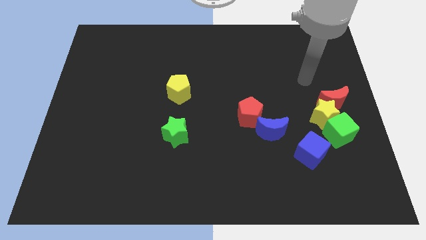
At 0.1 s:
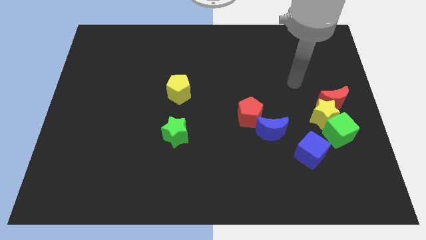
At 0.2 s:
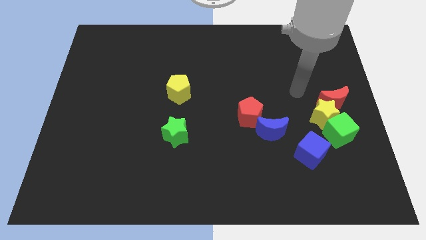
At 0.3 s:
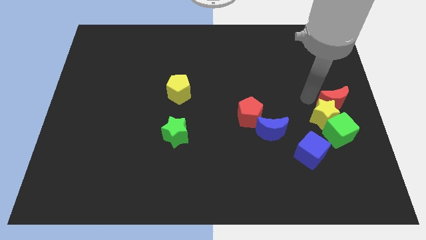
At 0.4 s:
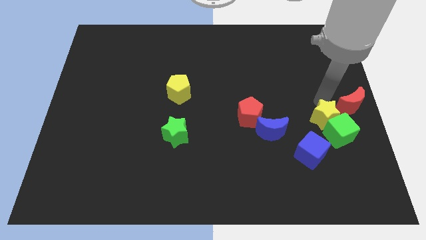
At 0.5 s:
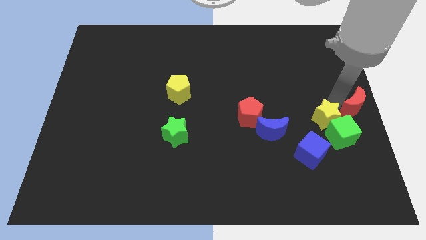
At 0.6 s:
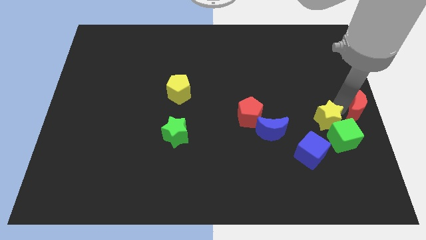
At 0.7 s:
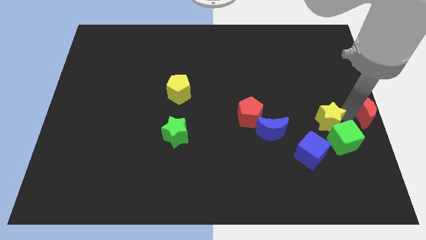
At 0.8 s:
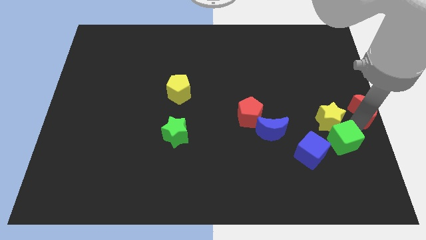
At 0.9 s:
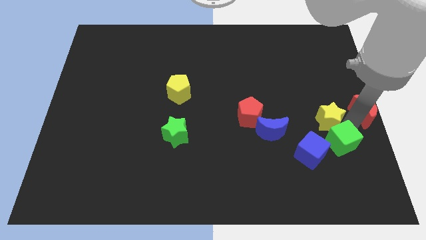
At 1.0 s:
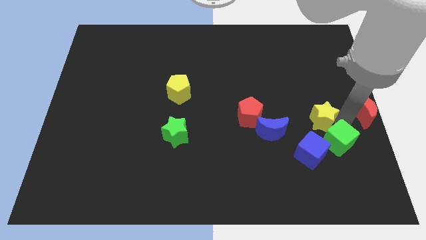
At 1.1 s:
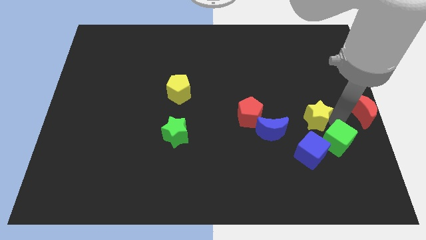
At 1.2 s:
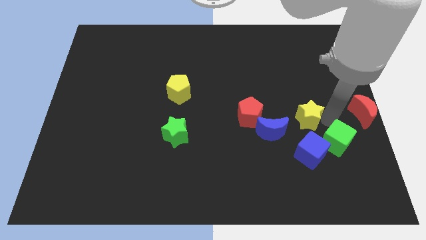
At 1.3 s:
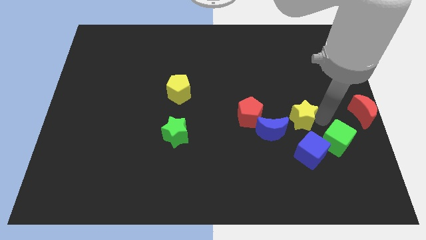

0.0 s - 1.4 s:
move the yellow star away from the red moon and green cube

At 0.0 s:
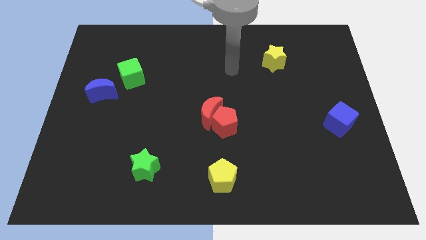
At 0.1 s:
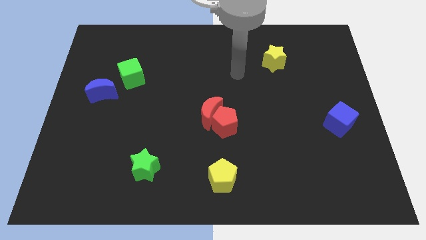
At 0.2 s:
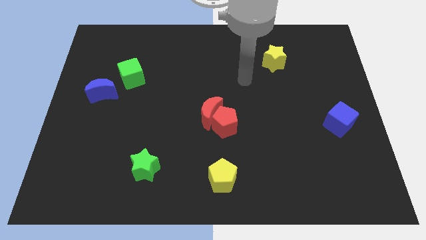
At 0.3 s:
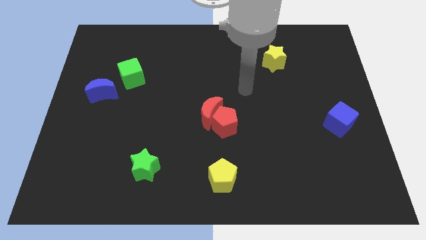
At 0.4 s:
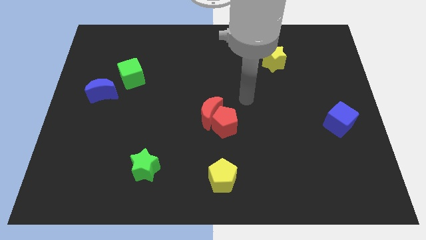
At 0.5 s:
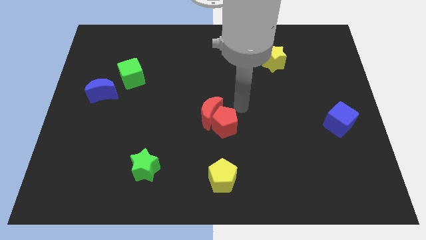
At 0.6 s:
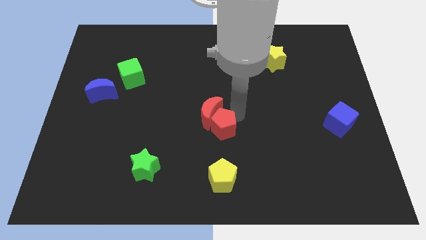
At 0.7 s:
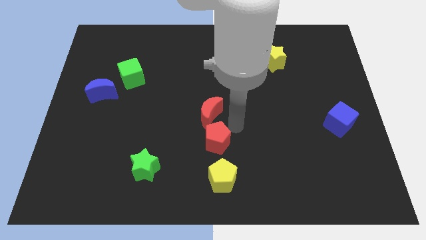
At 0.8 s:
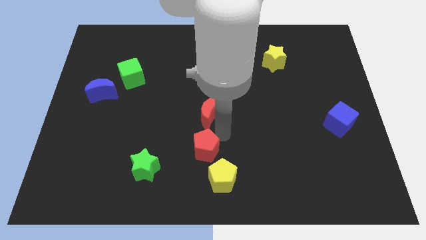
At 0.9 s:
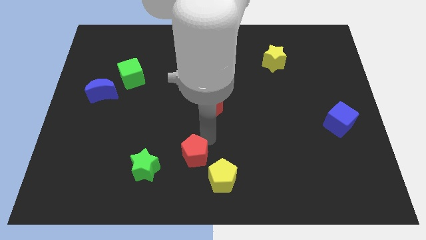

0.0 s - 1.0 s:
pull the red moon apart from the red pentagon

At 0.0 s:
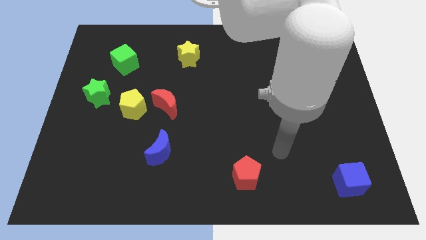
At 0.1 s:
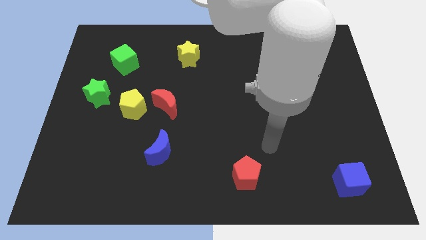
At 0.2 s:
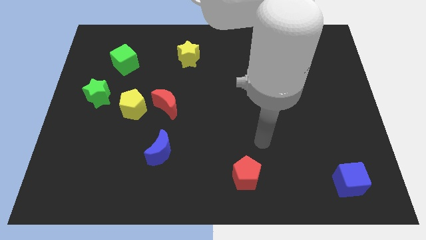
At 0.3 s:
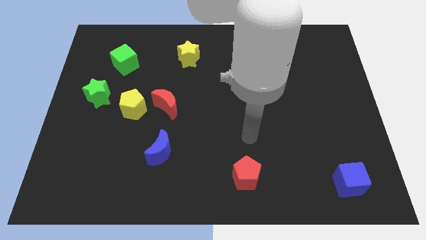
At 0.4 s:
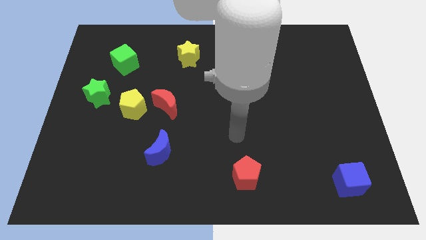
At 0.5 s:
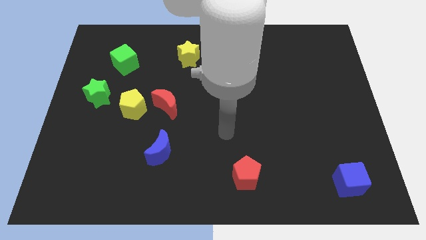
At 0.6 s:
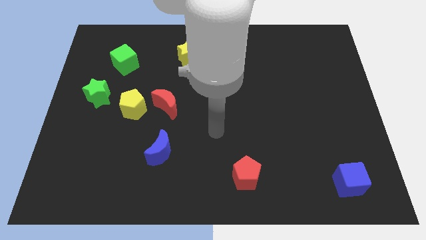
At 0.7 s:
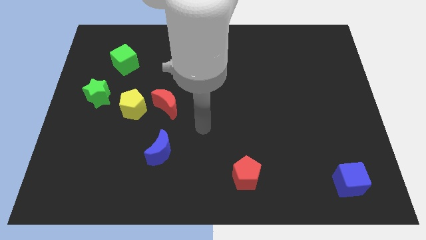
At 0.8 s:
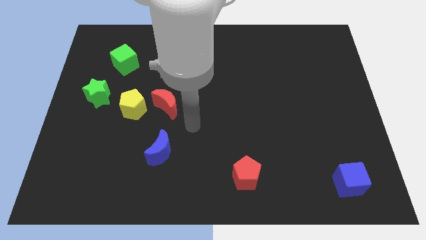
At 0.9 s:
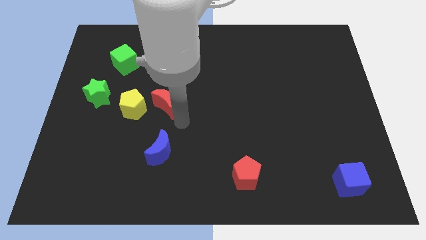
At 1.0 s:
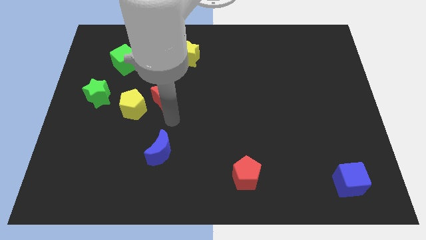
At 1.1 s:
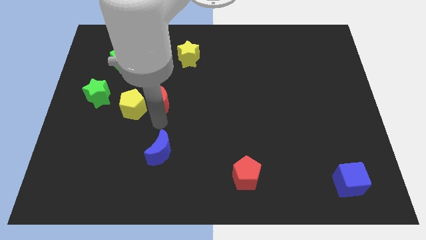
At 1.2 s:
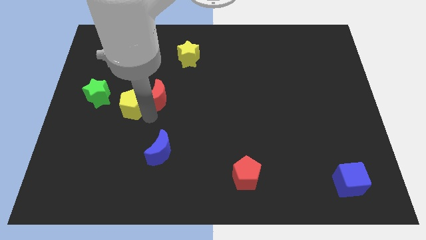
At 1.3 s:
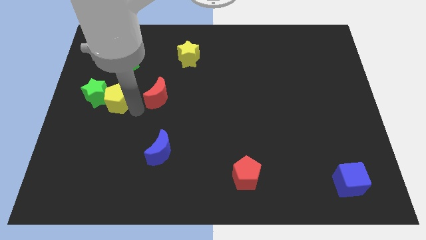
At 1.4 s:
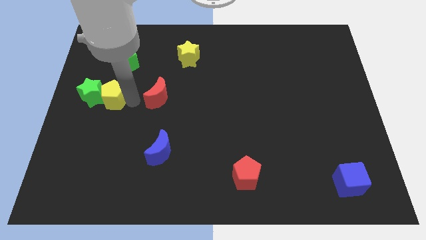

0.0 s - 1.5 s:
pull the red moon apart from the yellow pentagon

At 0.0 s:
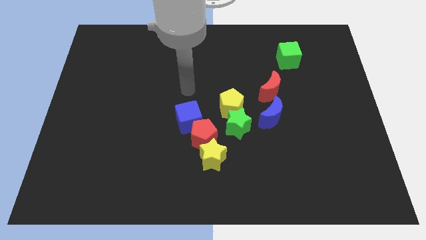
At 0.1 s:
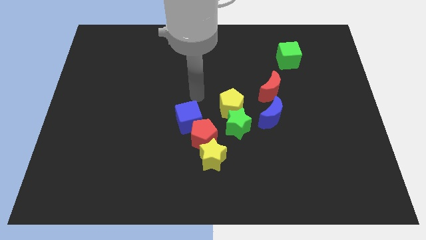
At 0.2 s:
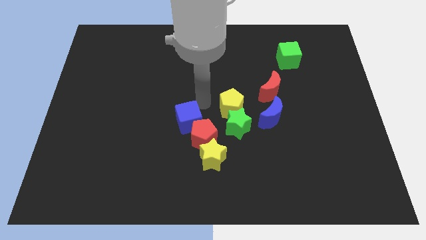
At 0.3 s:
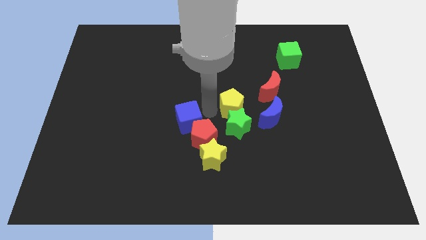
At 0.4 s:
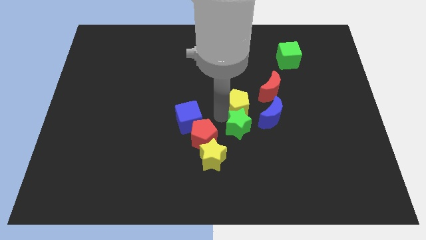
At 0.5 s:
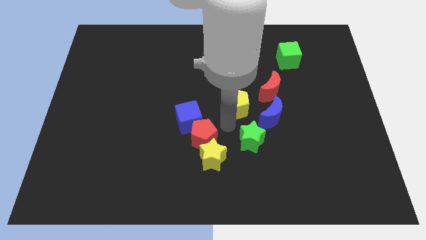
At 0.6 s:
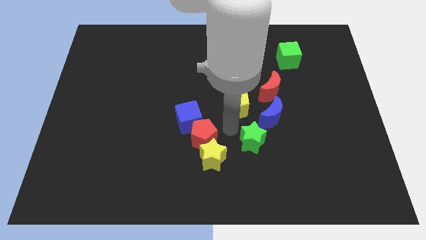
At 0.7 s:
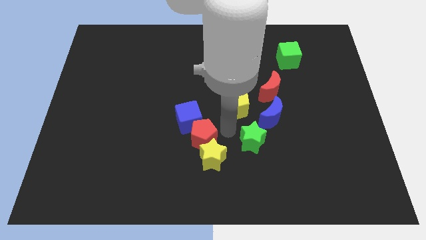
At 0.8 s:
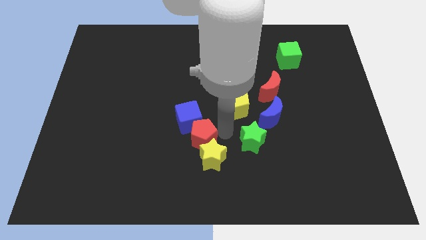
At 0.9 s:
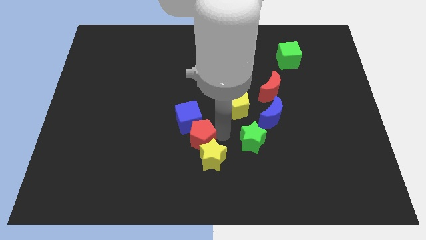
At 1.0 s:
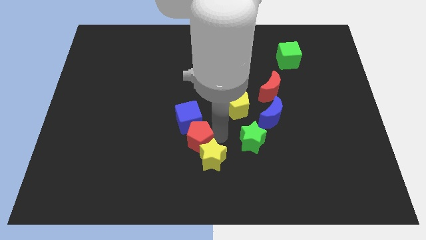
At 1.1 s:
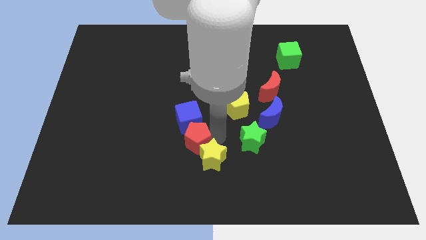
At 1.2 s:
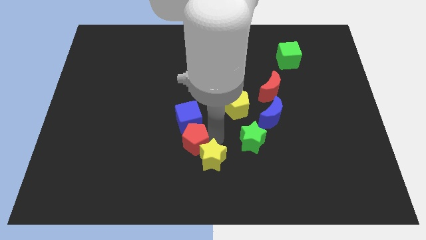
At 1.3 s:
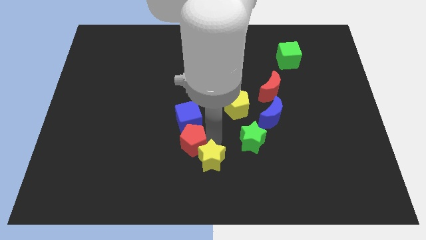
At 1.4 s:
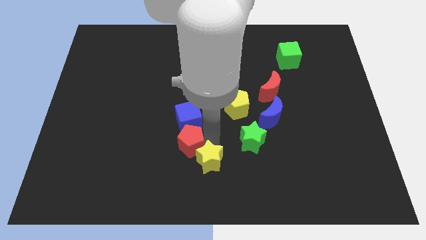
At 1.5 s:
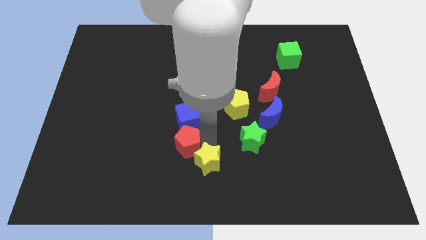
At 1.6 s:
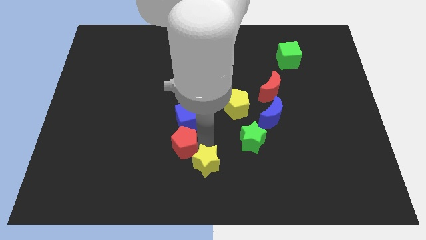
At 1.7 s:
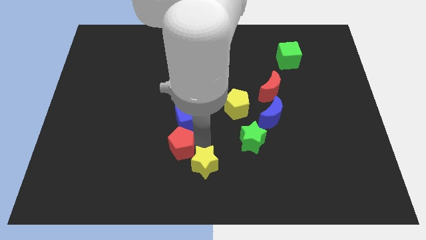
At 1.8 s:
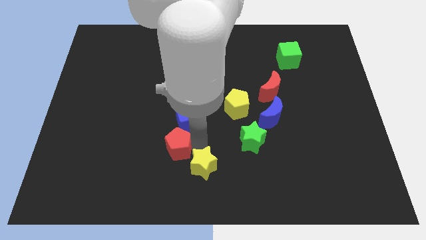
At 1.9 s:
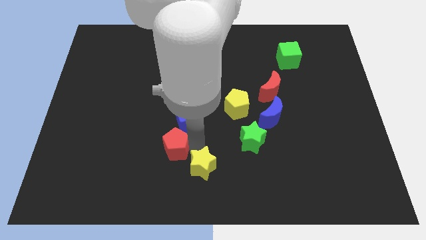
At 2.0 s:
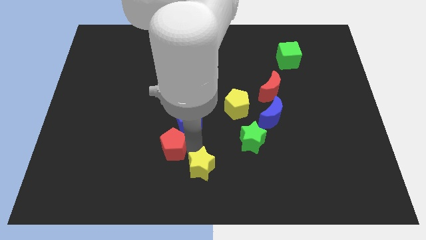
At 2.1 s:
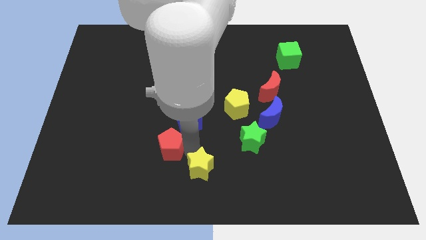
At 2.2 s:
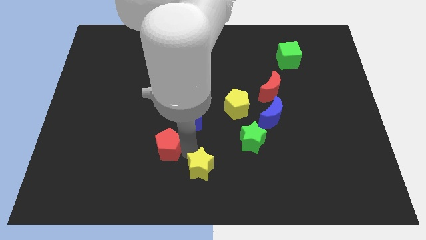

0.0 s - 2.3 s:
pull the red pentagon apart from the yellow star, blue cube, and green star

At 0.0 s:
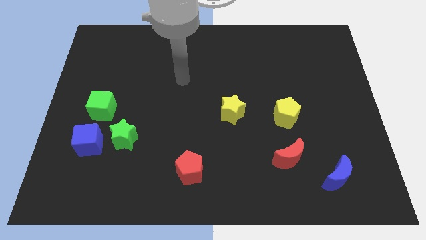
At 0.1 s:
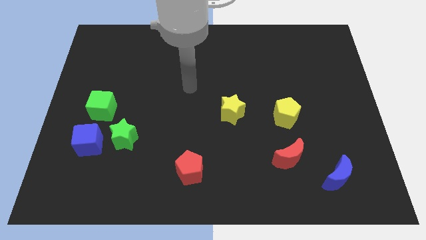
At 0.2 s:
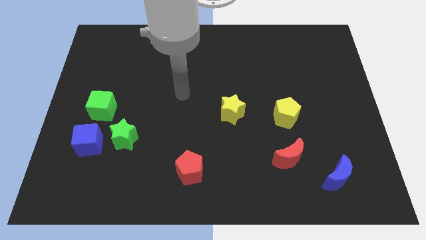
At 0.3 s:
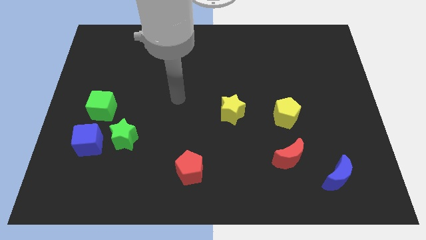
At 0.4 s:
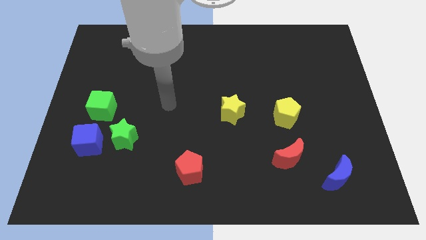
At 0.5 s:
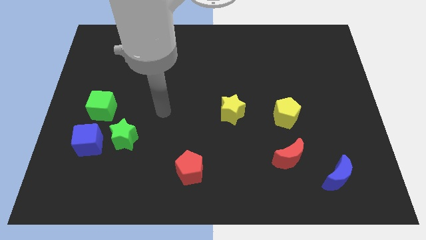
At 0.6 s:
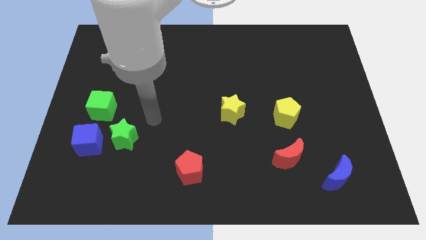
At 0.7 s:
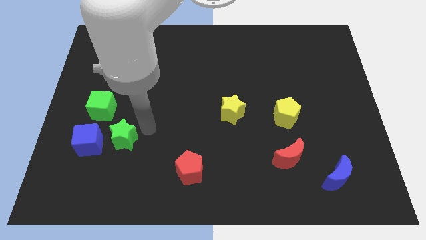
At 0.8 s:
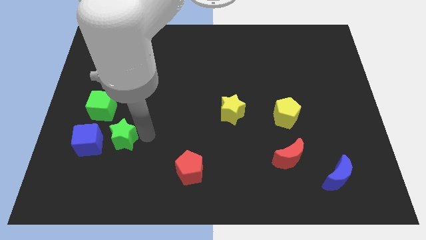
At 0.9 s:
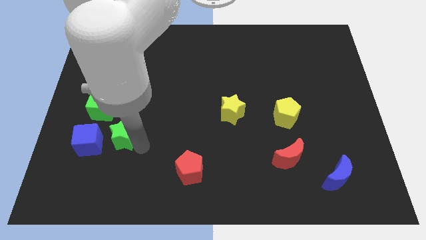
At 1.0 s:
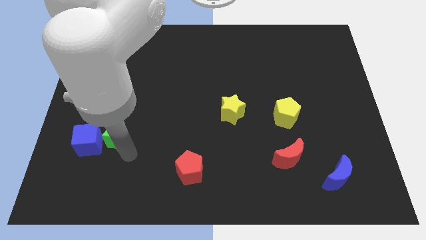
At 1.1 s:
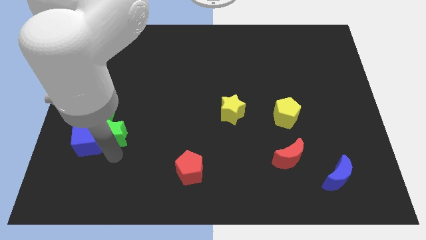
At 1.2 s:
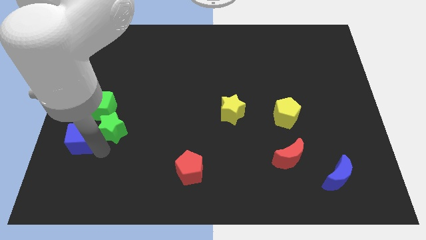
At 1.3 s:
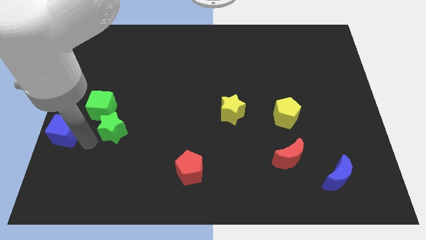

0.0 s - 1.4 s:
move the green star away from the blue cube

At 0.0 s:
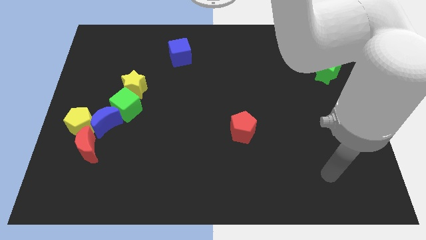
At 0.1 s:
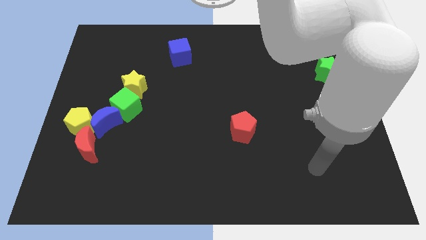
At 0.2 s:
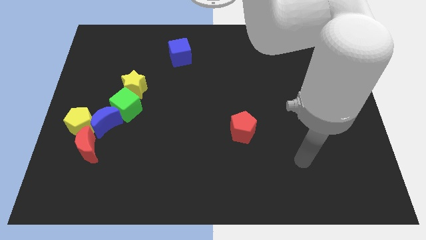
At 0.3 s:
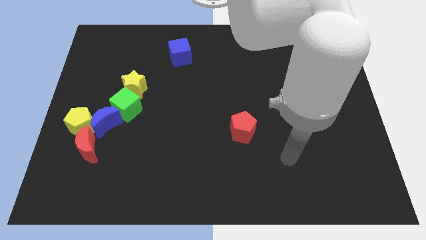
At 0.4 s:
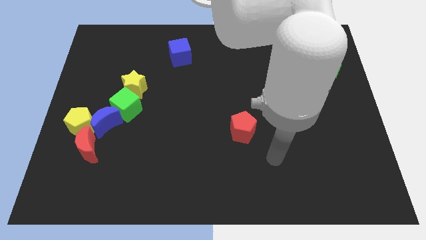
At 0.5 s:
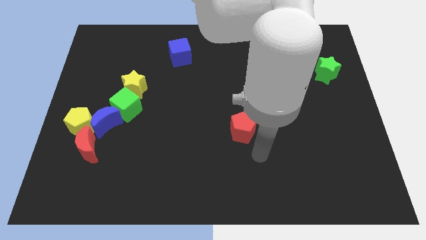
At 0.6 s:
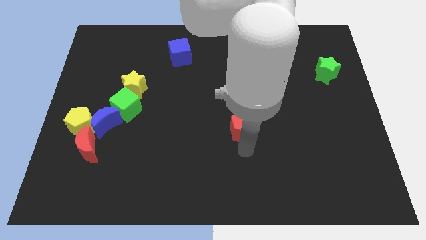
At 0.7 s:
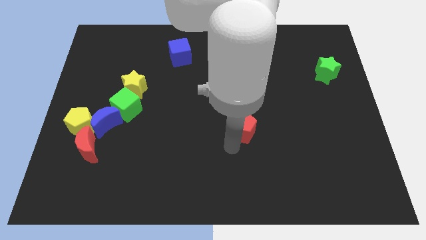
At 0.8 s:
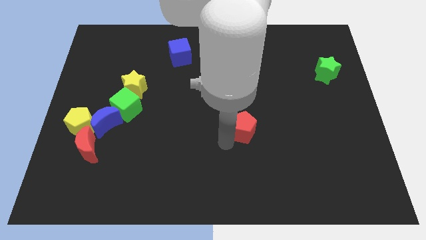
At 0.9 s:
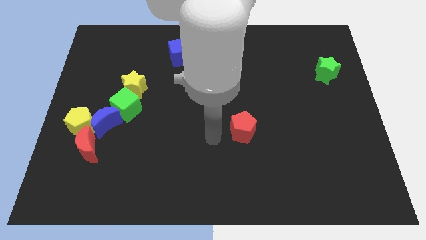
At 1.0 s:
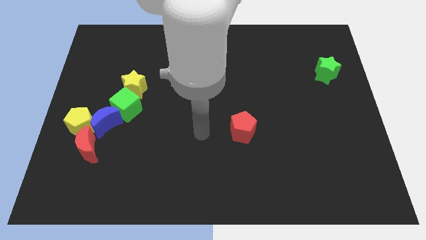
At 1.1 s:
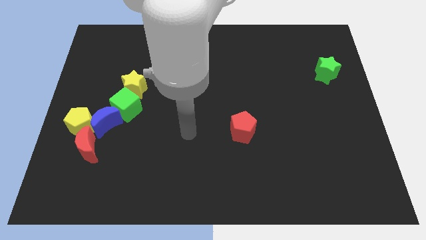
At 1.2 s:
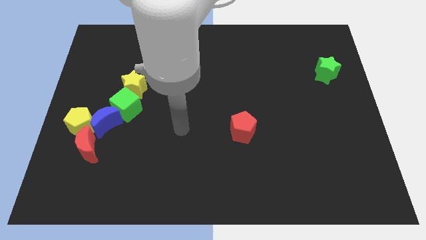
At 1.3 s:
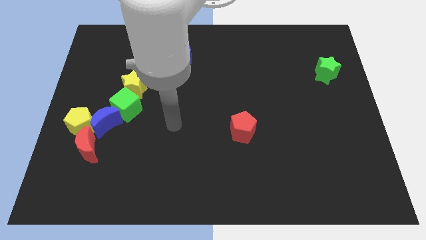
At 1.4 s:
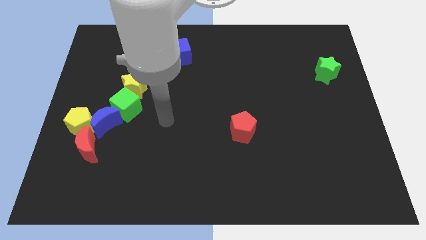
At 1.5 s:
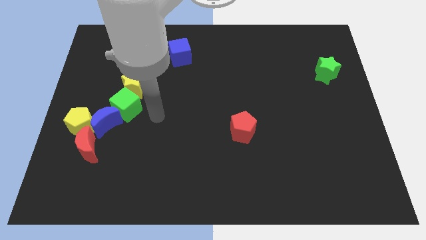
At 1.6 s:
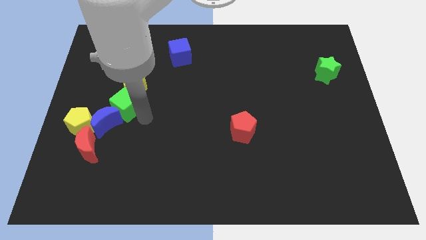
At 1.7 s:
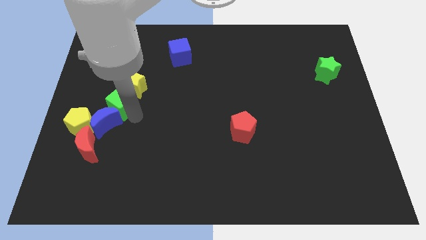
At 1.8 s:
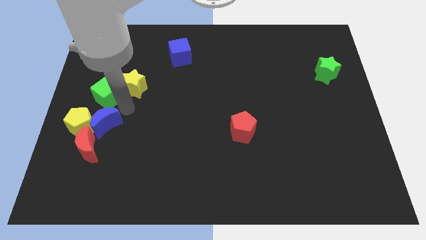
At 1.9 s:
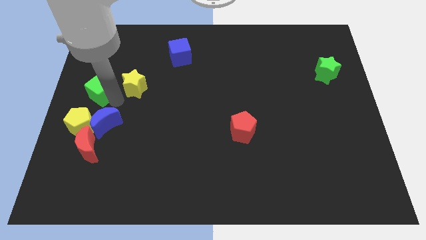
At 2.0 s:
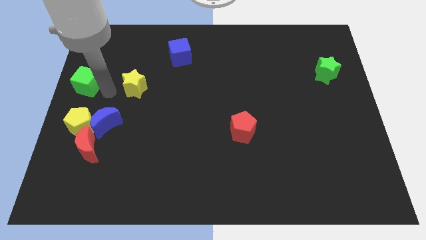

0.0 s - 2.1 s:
separate the yellow star from the green cube
